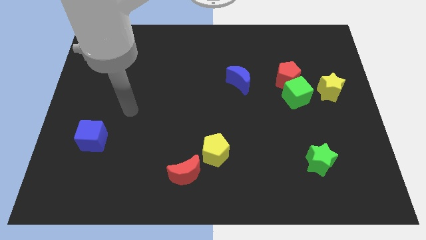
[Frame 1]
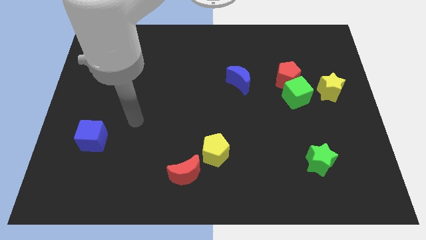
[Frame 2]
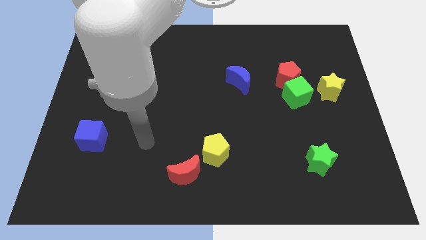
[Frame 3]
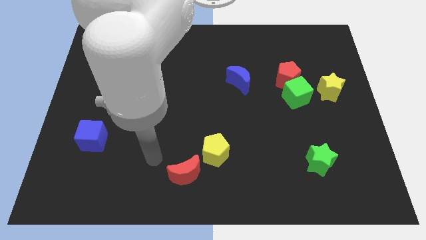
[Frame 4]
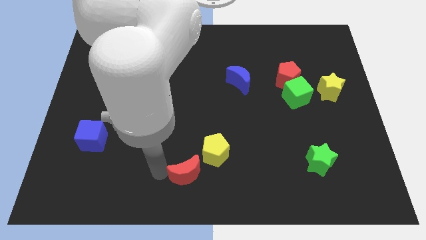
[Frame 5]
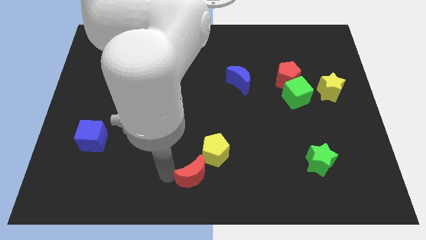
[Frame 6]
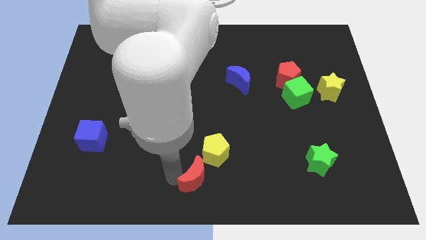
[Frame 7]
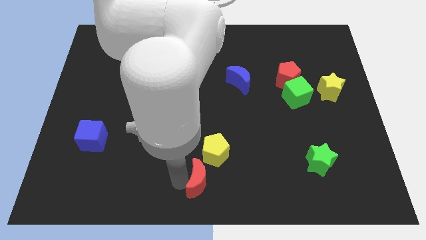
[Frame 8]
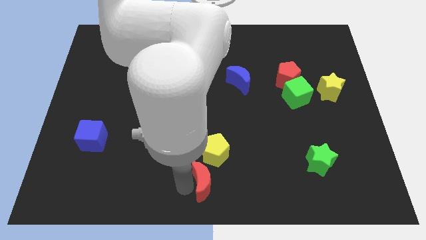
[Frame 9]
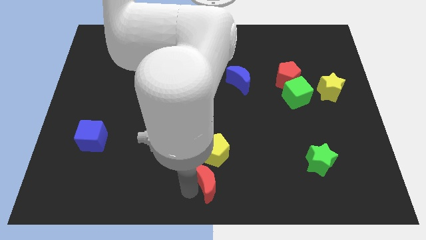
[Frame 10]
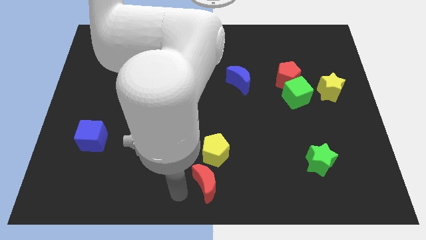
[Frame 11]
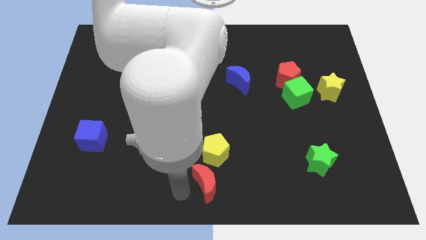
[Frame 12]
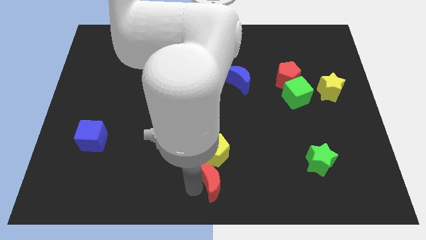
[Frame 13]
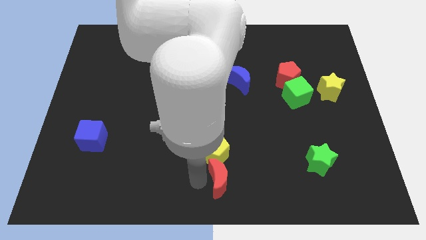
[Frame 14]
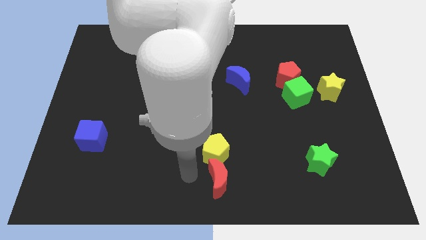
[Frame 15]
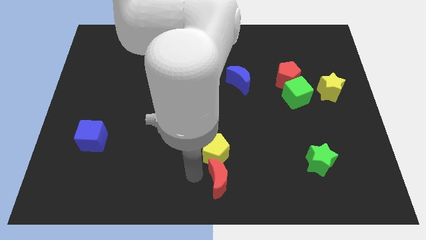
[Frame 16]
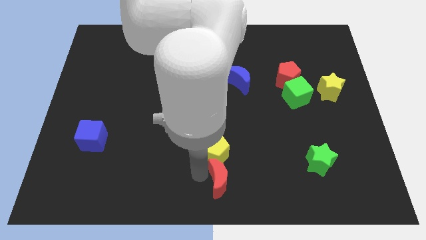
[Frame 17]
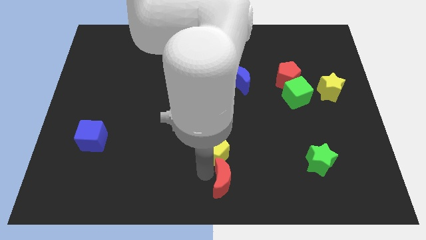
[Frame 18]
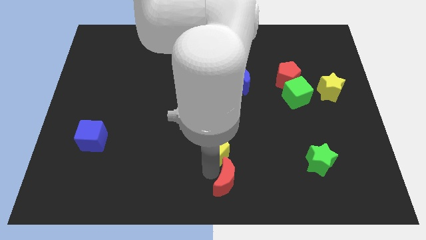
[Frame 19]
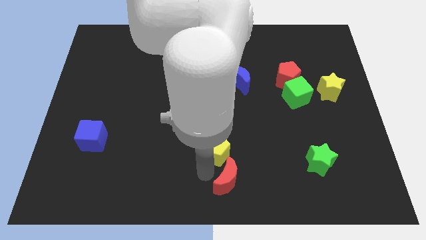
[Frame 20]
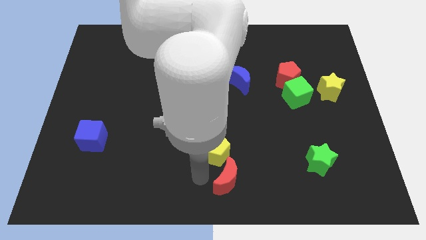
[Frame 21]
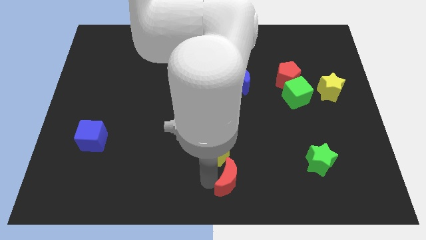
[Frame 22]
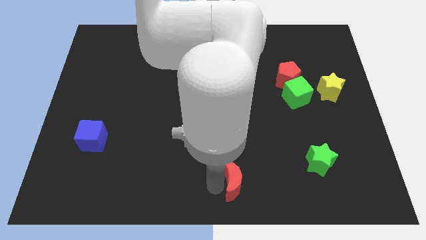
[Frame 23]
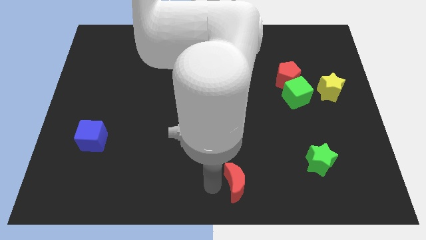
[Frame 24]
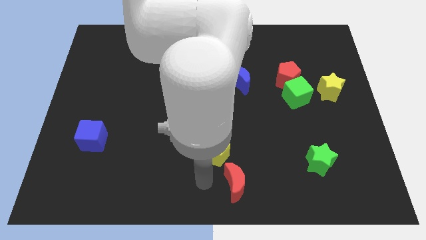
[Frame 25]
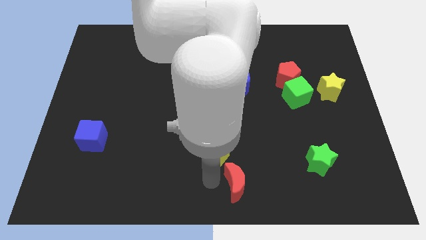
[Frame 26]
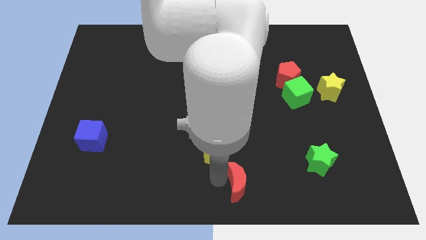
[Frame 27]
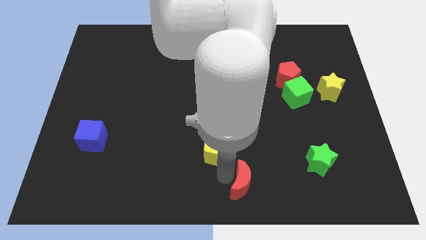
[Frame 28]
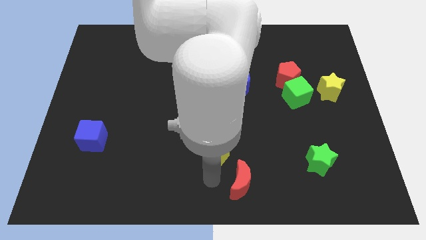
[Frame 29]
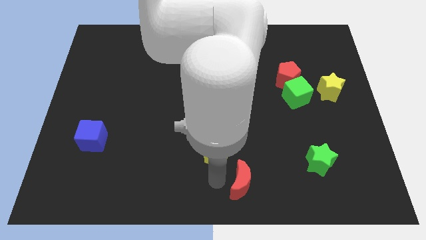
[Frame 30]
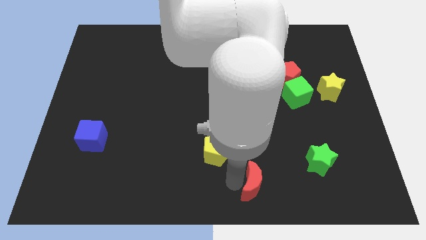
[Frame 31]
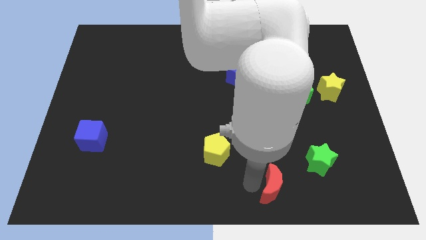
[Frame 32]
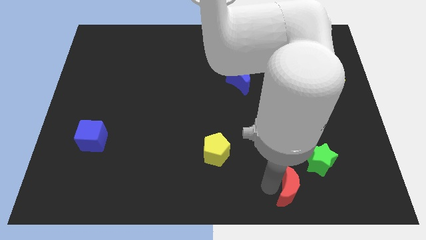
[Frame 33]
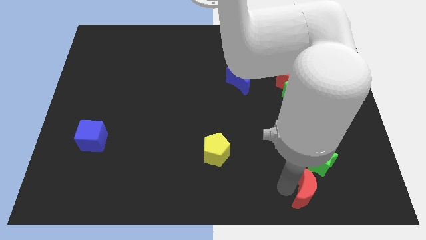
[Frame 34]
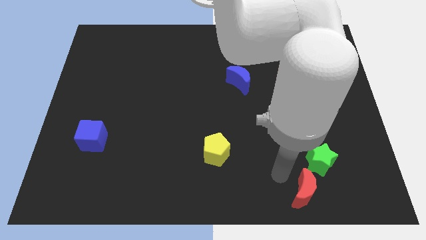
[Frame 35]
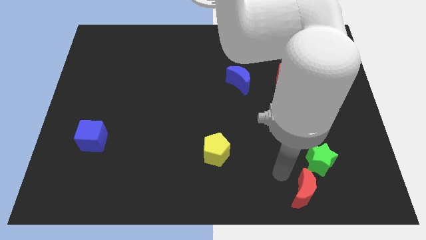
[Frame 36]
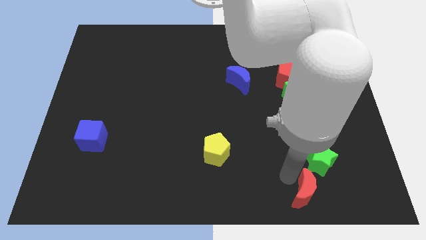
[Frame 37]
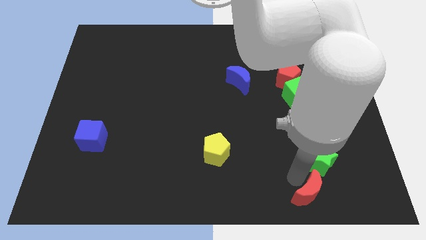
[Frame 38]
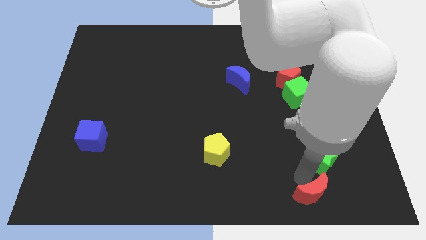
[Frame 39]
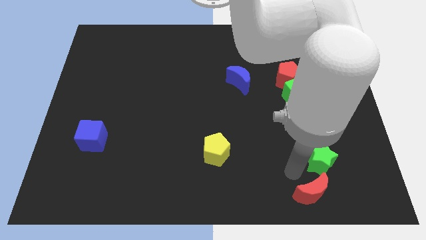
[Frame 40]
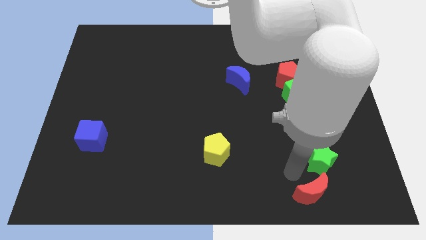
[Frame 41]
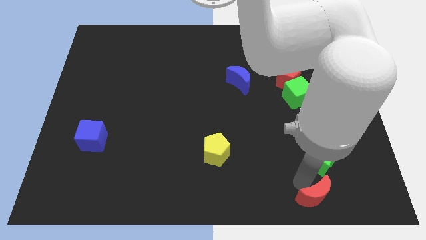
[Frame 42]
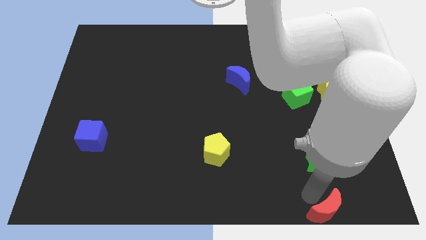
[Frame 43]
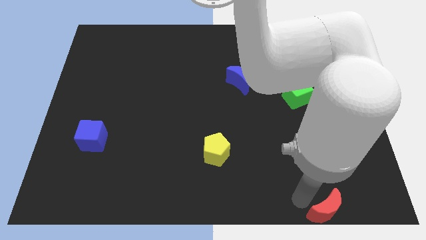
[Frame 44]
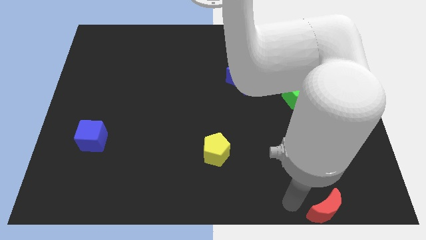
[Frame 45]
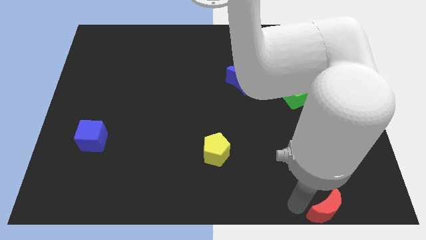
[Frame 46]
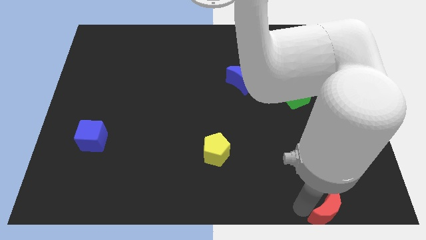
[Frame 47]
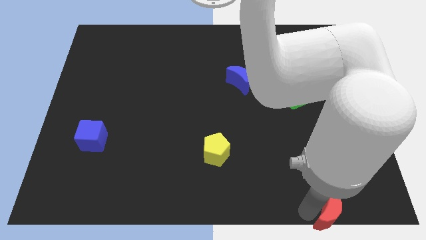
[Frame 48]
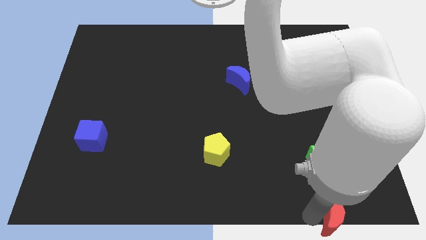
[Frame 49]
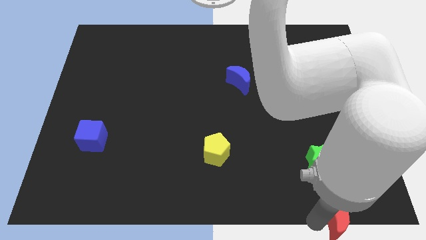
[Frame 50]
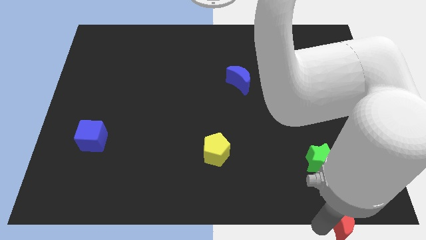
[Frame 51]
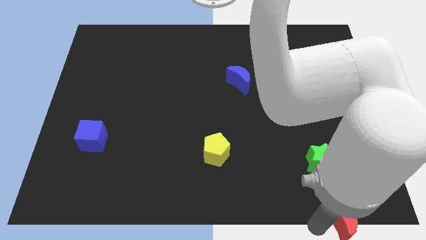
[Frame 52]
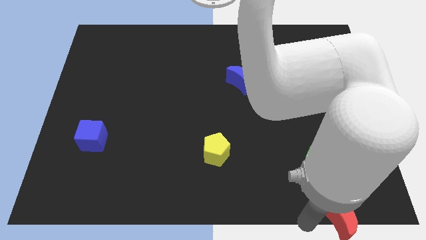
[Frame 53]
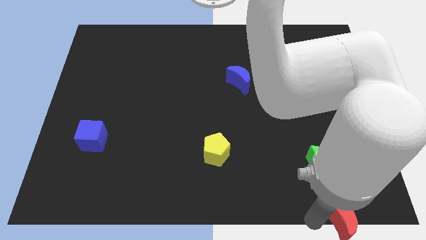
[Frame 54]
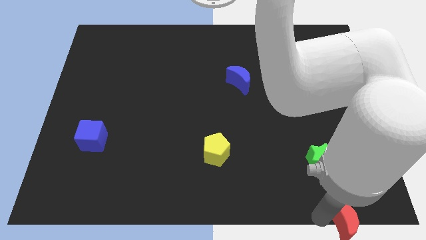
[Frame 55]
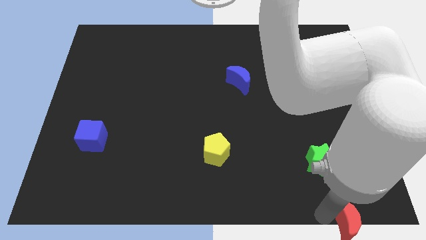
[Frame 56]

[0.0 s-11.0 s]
move the red moon to the bottom right corner
